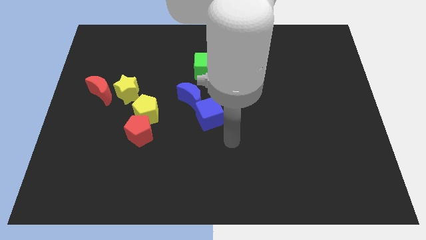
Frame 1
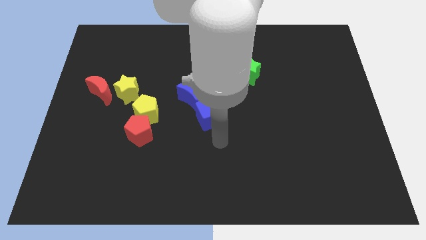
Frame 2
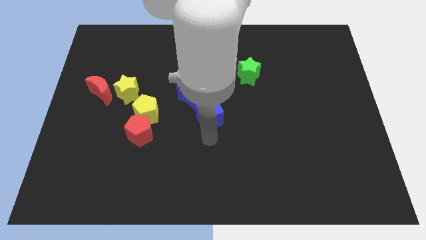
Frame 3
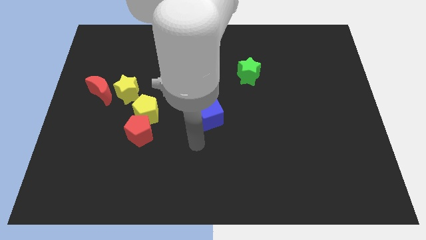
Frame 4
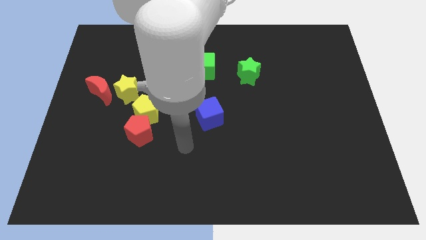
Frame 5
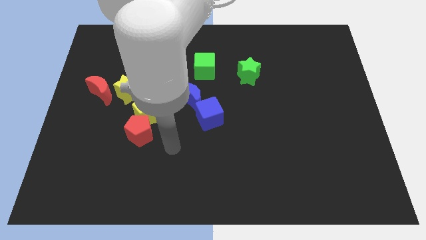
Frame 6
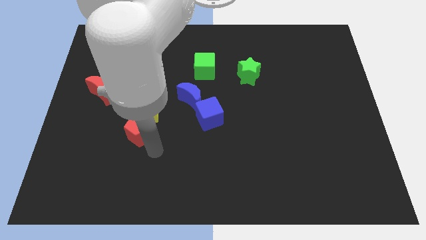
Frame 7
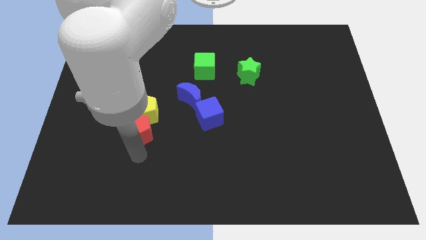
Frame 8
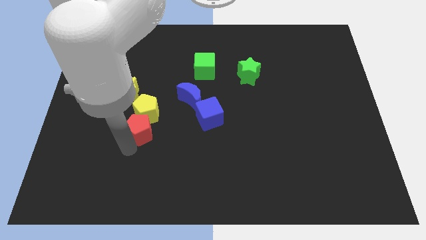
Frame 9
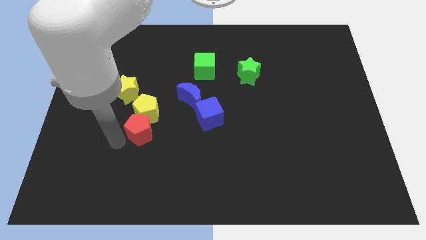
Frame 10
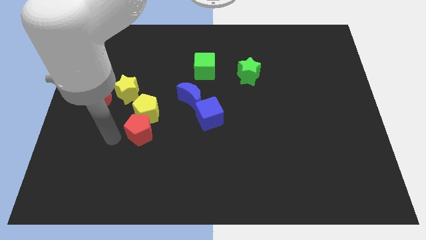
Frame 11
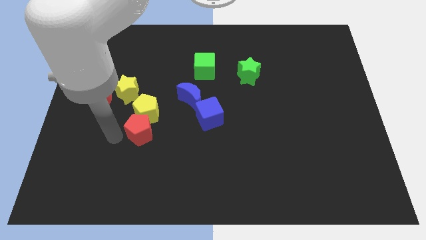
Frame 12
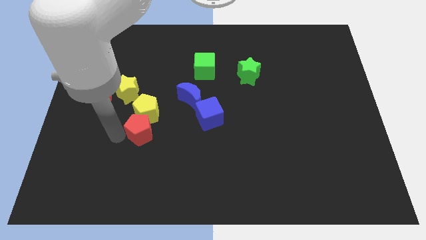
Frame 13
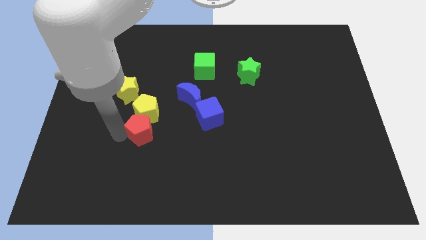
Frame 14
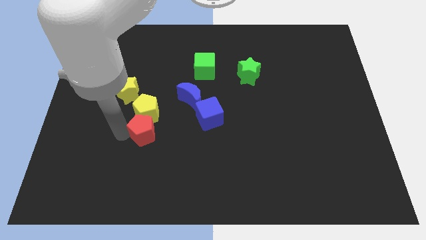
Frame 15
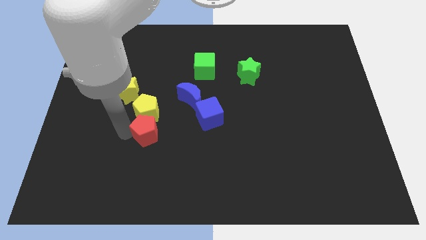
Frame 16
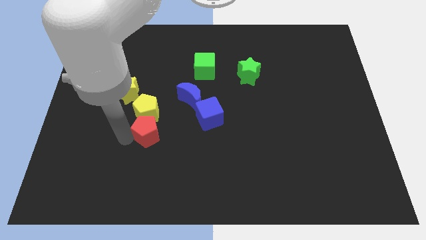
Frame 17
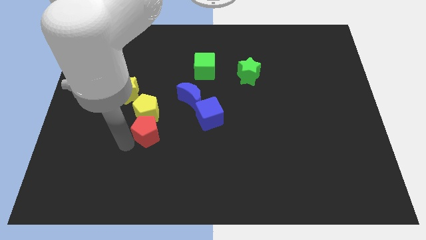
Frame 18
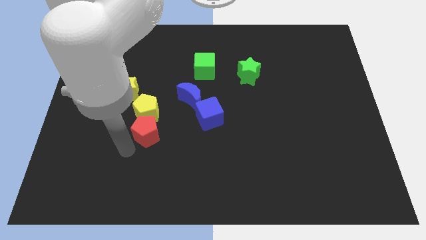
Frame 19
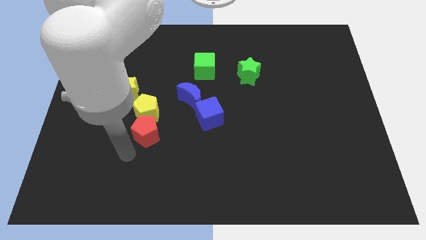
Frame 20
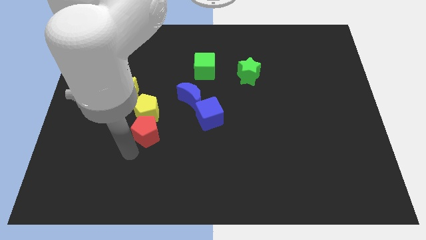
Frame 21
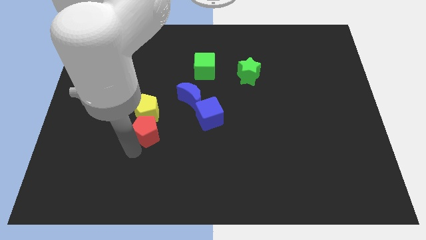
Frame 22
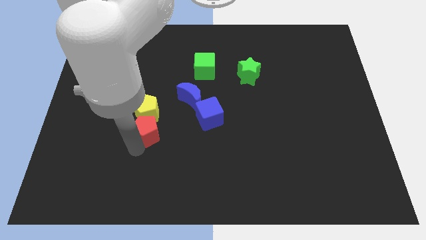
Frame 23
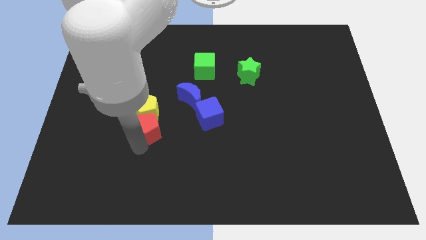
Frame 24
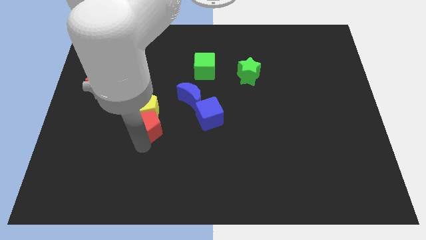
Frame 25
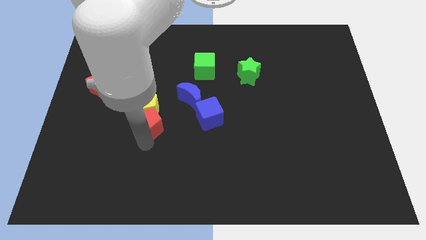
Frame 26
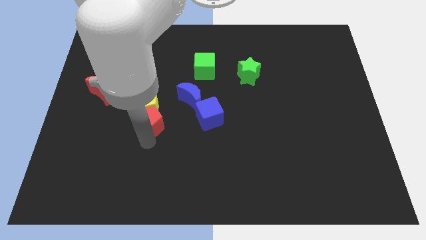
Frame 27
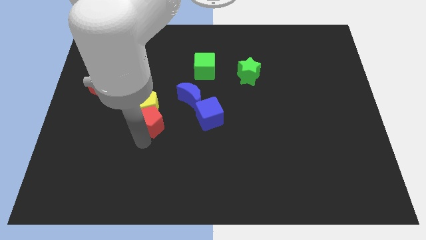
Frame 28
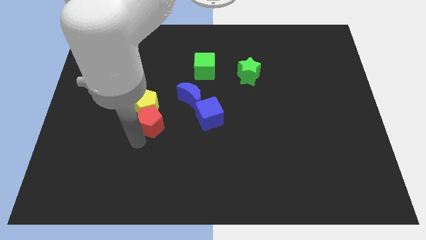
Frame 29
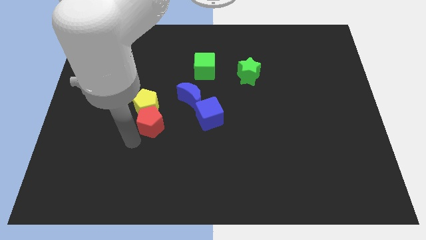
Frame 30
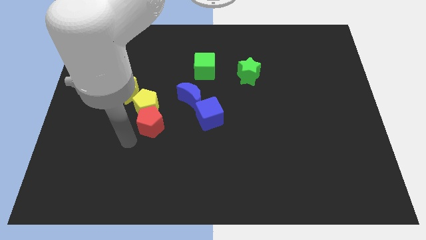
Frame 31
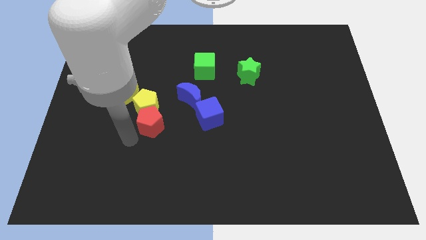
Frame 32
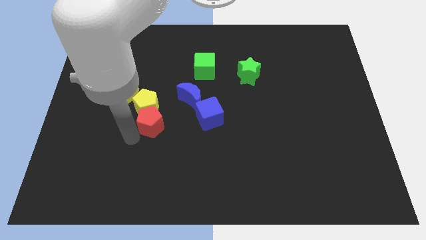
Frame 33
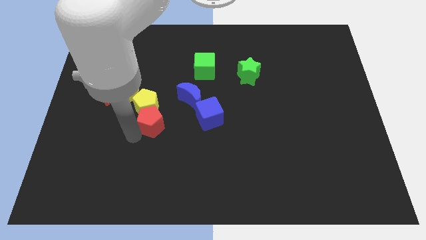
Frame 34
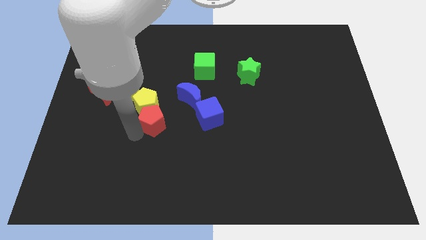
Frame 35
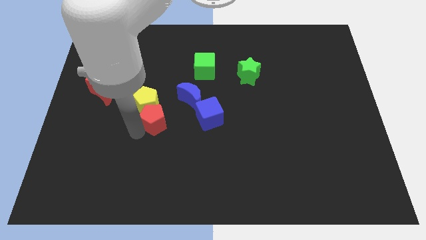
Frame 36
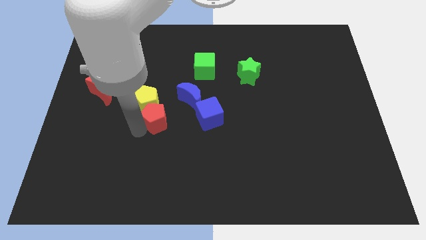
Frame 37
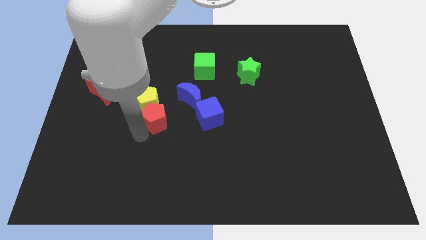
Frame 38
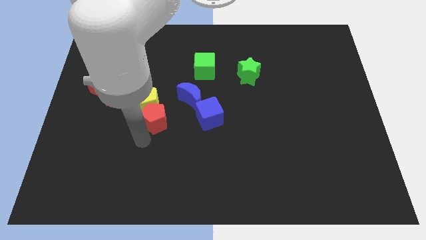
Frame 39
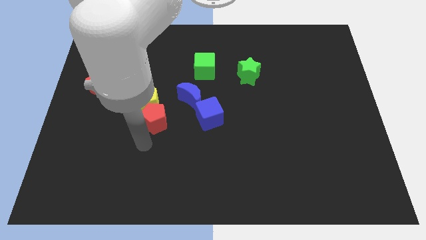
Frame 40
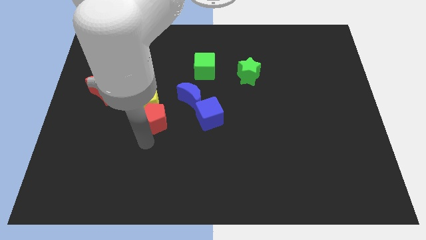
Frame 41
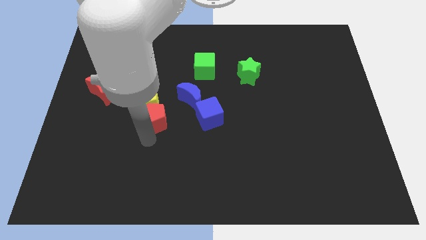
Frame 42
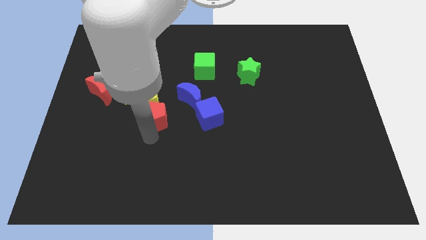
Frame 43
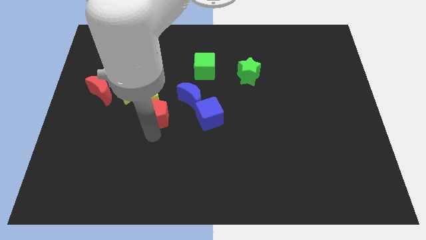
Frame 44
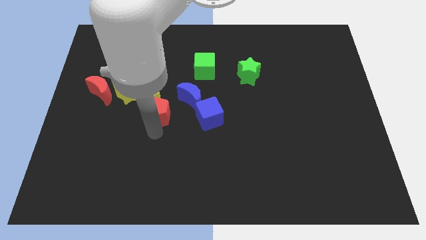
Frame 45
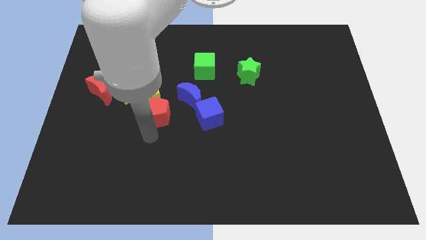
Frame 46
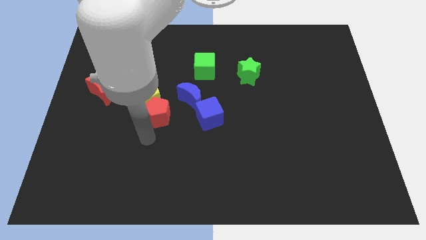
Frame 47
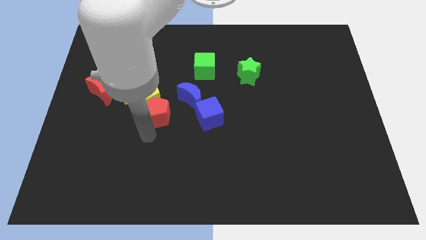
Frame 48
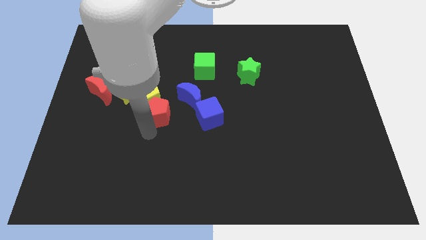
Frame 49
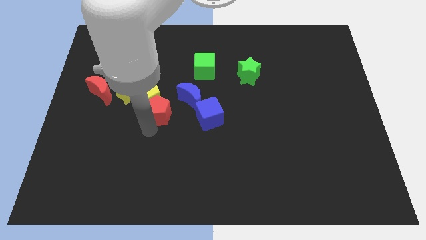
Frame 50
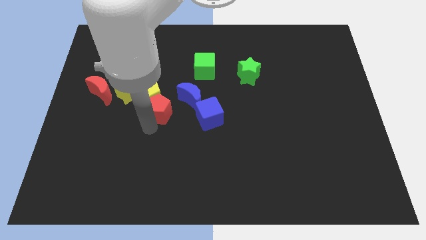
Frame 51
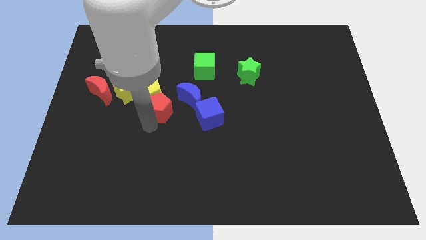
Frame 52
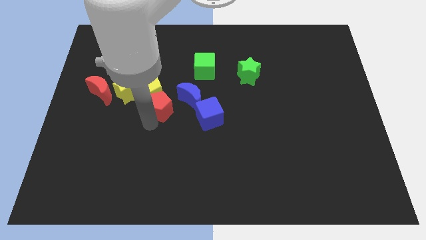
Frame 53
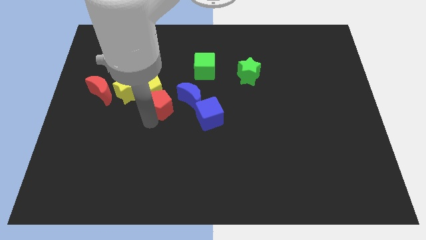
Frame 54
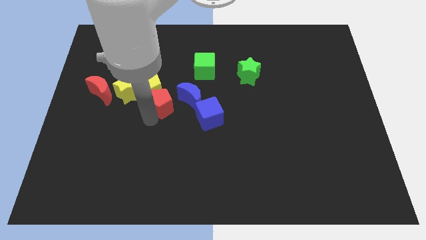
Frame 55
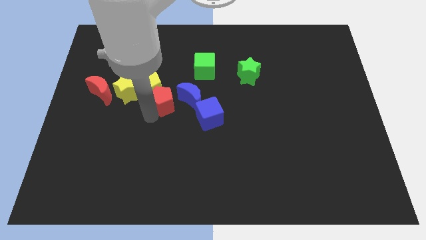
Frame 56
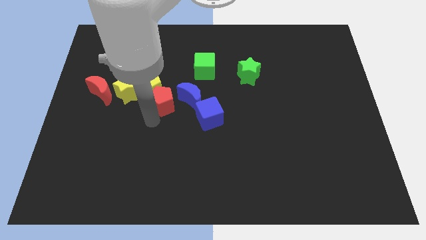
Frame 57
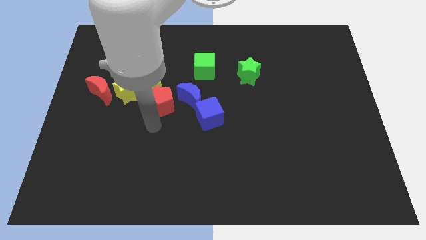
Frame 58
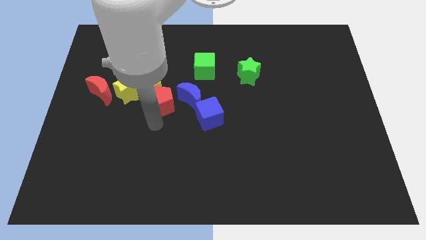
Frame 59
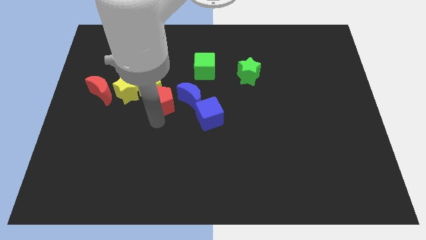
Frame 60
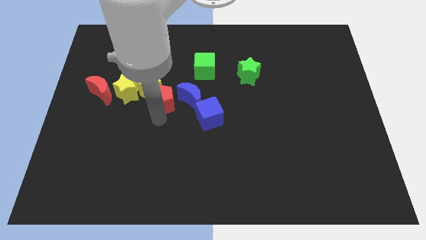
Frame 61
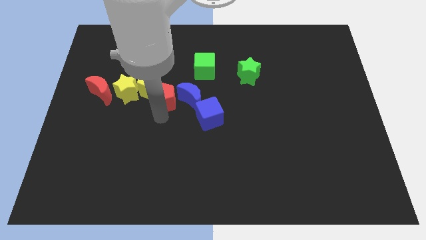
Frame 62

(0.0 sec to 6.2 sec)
put the red pentagon to the top left of the blue moon

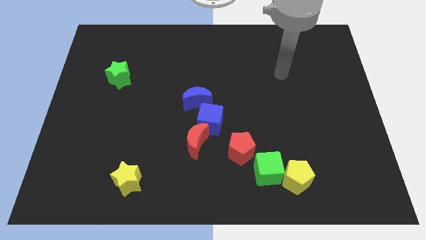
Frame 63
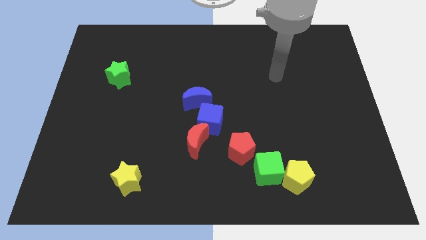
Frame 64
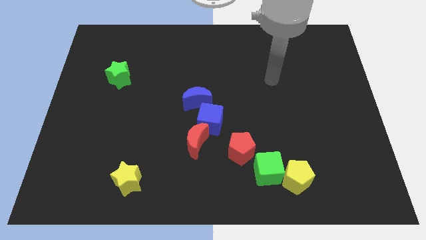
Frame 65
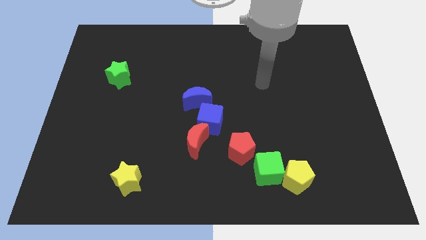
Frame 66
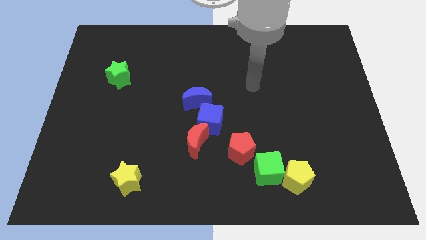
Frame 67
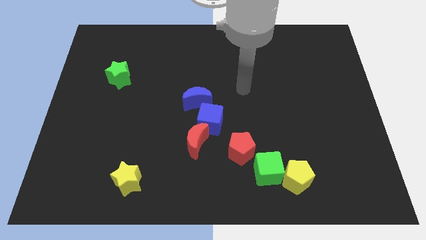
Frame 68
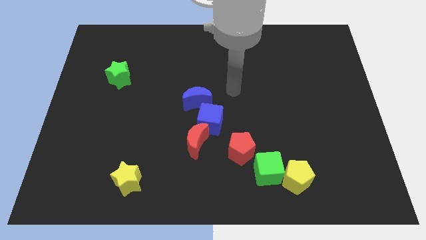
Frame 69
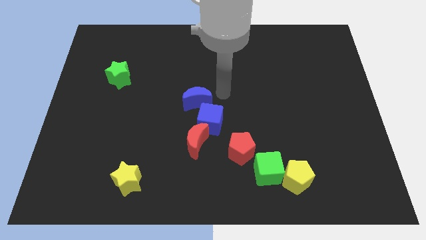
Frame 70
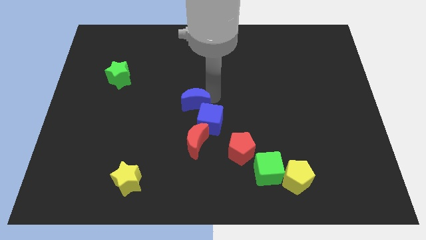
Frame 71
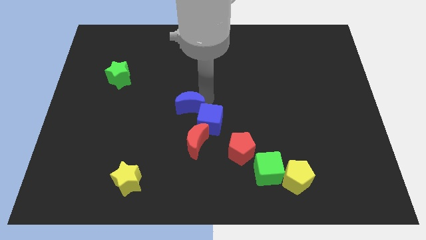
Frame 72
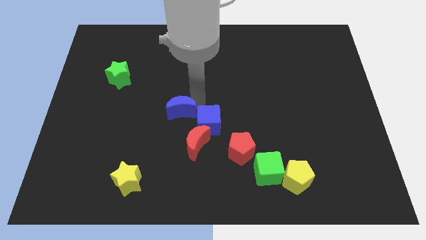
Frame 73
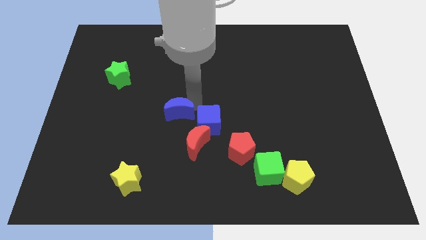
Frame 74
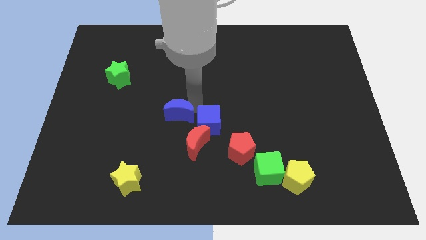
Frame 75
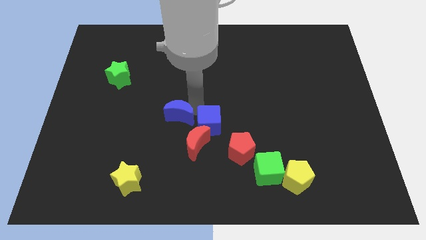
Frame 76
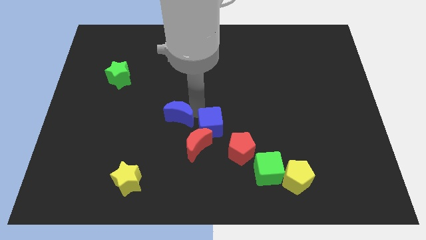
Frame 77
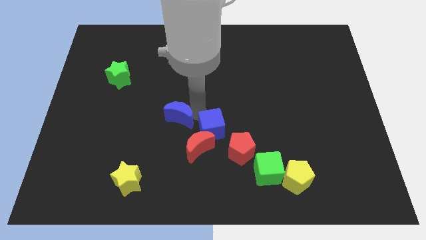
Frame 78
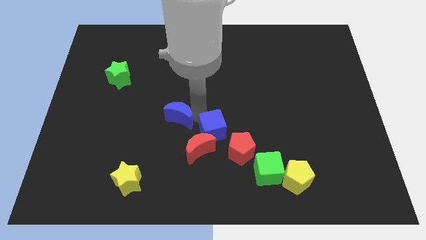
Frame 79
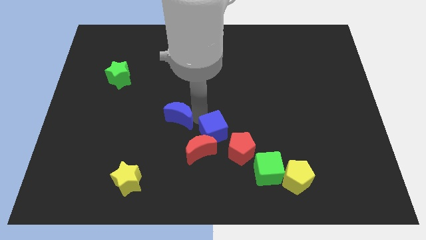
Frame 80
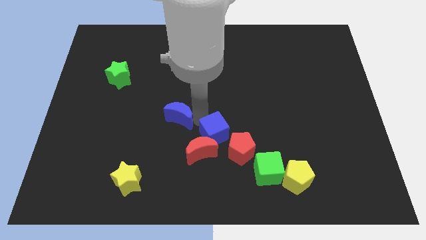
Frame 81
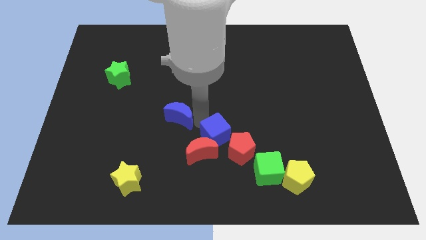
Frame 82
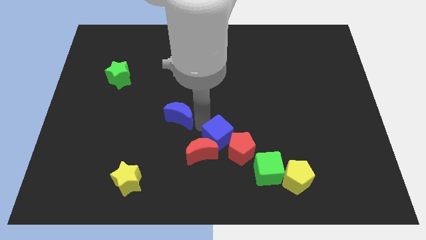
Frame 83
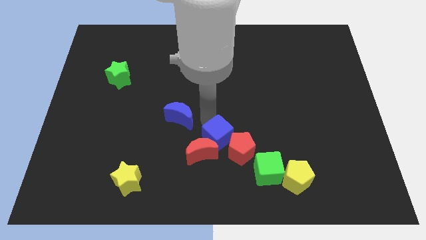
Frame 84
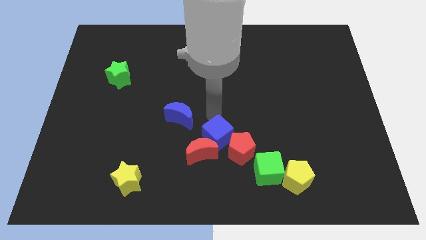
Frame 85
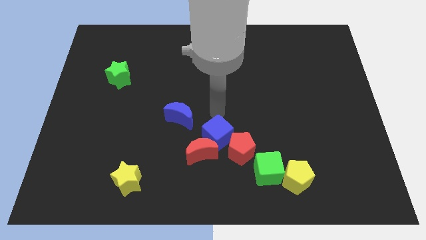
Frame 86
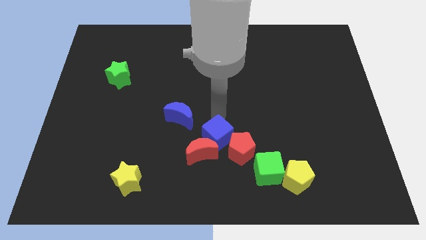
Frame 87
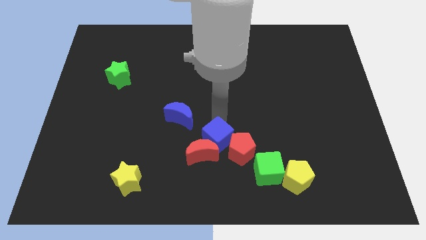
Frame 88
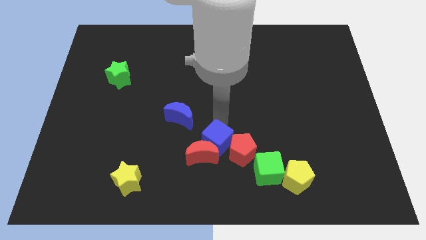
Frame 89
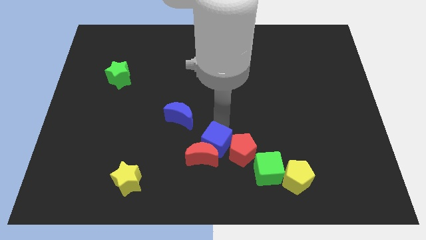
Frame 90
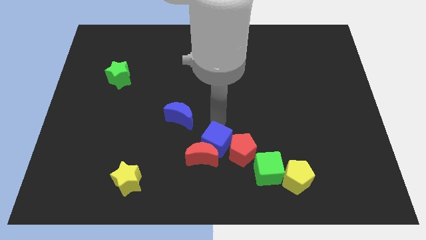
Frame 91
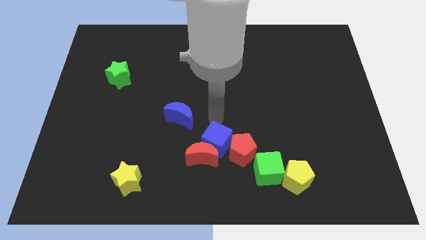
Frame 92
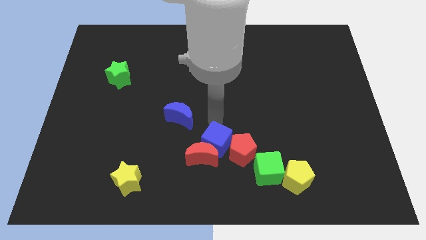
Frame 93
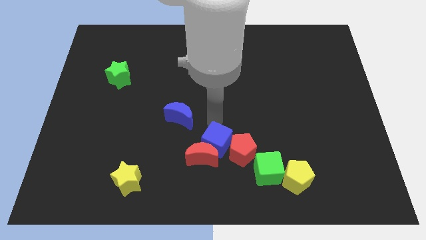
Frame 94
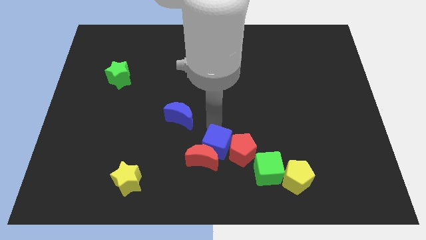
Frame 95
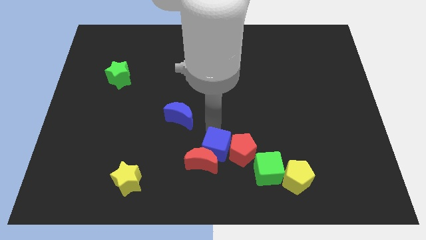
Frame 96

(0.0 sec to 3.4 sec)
move the blue cube diagonally down and to the left of the red pentagon
